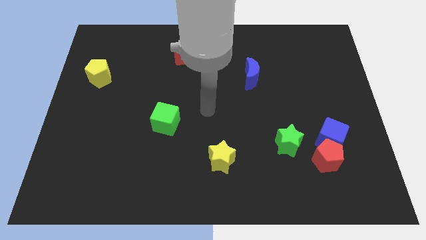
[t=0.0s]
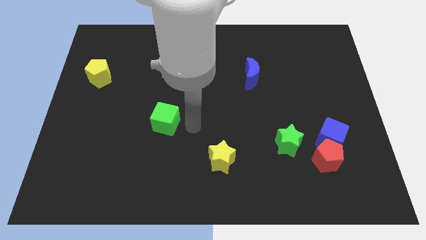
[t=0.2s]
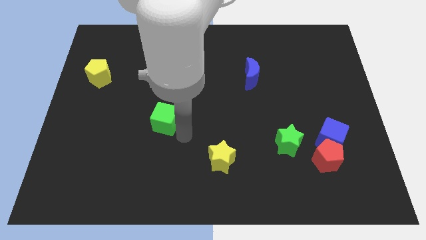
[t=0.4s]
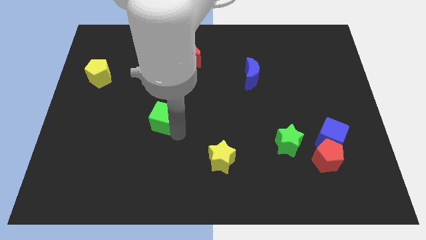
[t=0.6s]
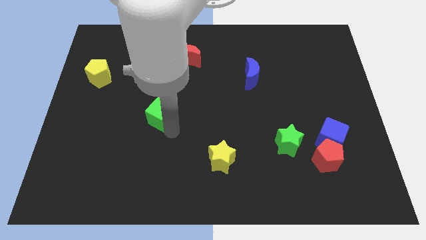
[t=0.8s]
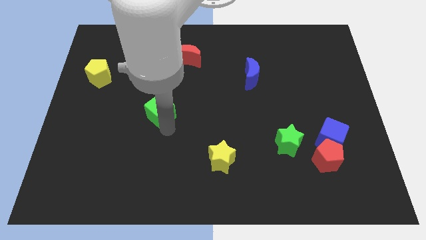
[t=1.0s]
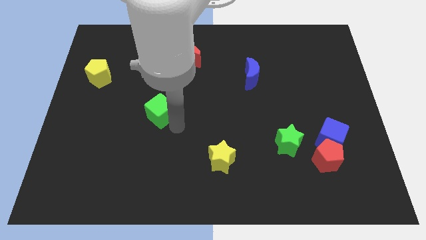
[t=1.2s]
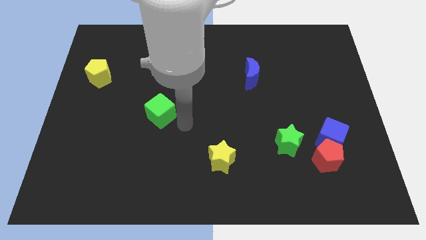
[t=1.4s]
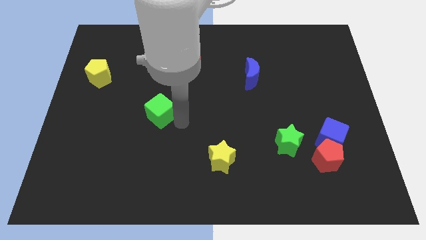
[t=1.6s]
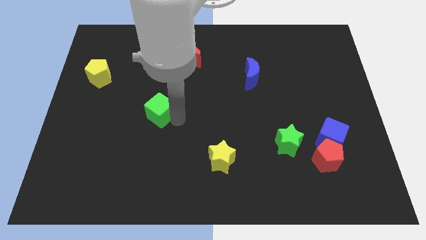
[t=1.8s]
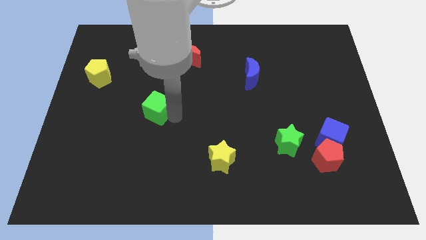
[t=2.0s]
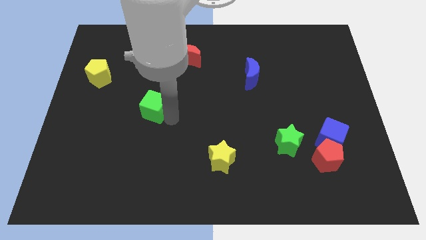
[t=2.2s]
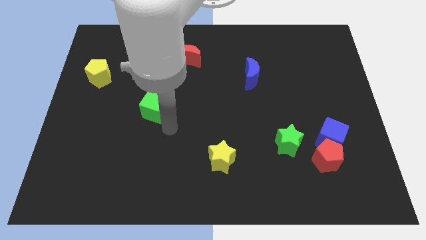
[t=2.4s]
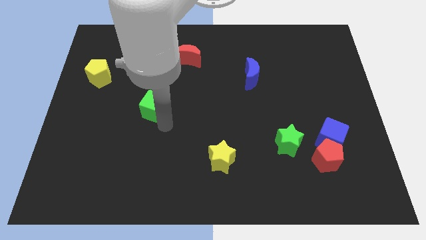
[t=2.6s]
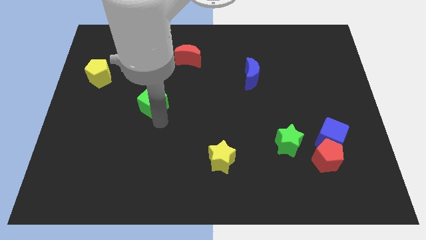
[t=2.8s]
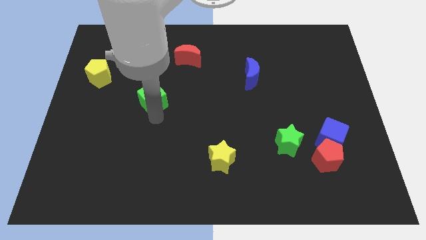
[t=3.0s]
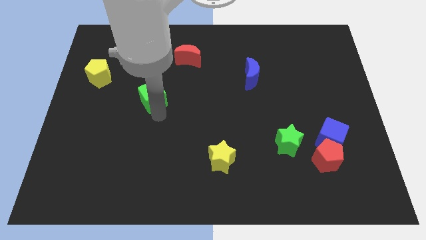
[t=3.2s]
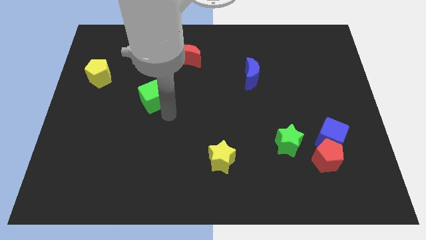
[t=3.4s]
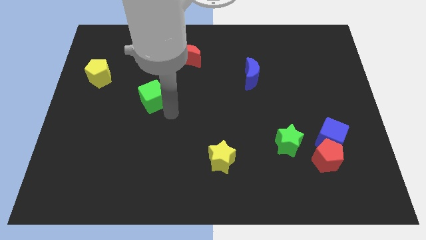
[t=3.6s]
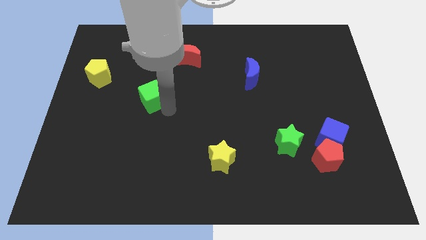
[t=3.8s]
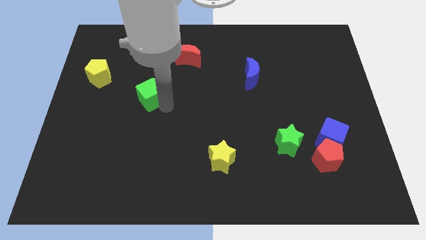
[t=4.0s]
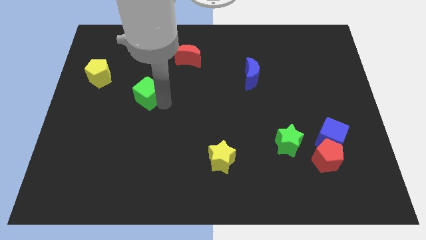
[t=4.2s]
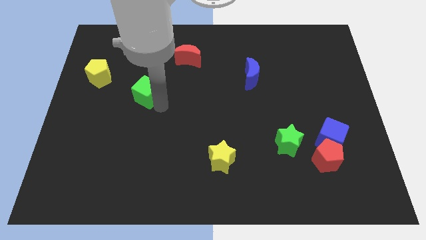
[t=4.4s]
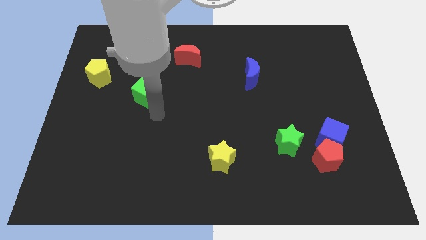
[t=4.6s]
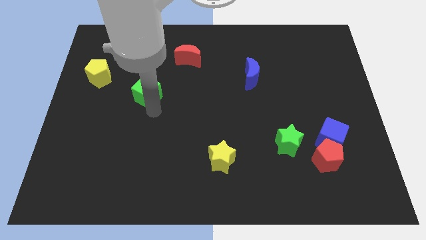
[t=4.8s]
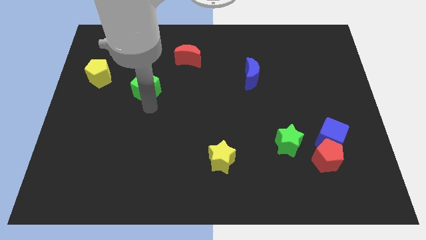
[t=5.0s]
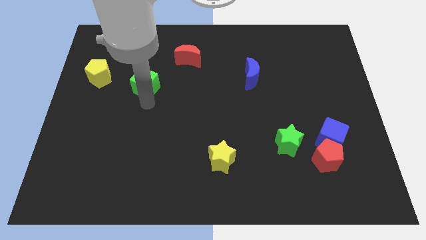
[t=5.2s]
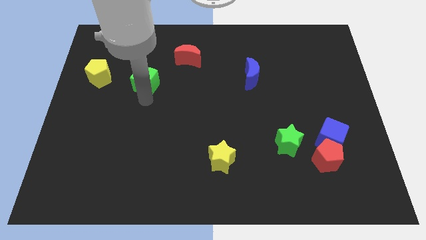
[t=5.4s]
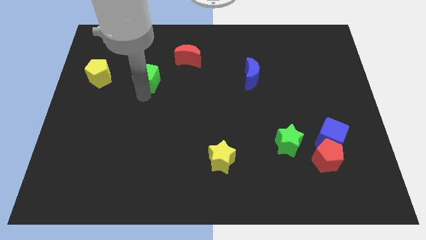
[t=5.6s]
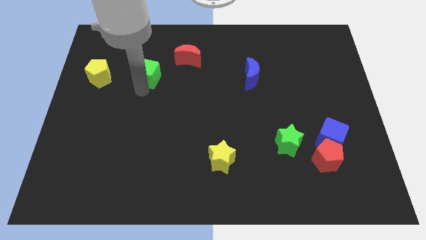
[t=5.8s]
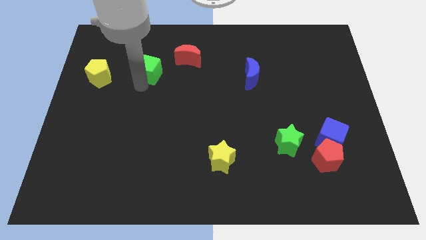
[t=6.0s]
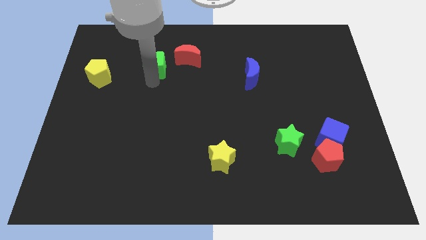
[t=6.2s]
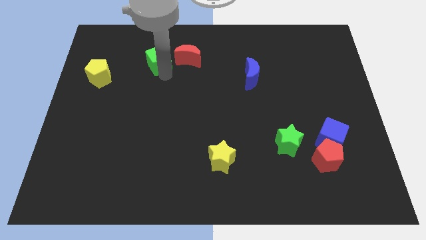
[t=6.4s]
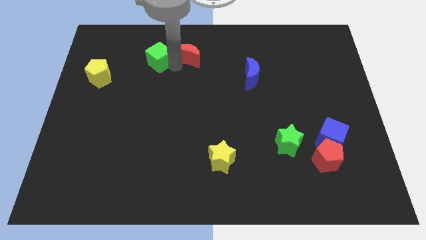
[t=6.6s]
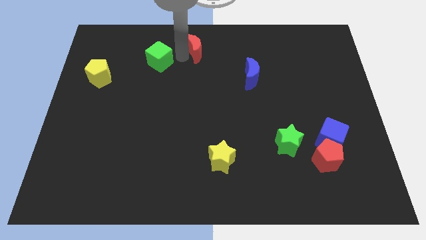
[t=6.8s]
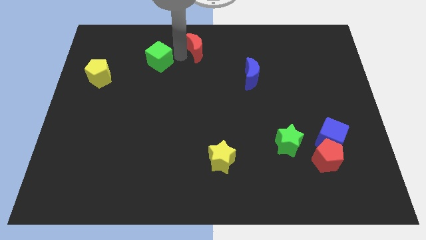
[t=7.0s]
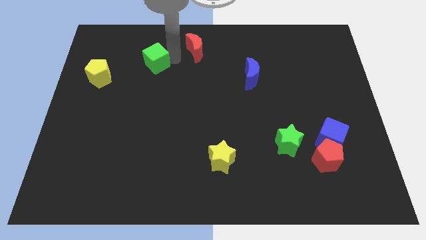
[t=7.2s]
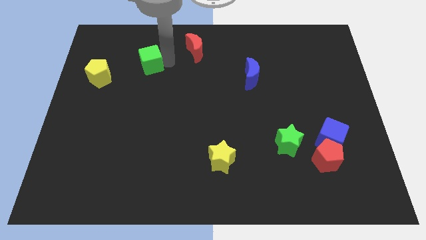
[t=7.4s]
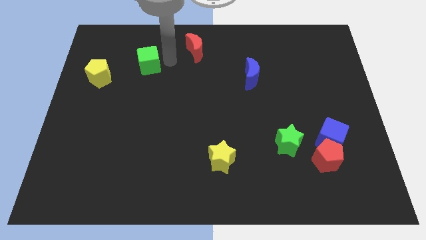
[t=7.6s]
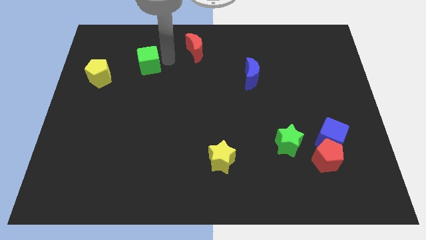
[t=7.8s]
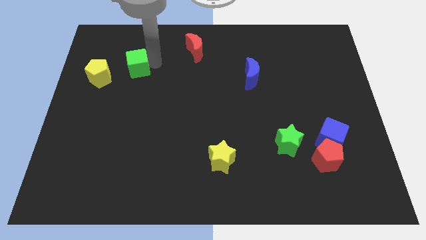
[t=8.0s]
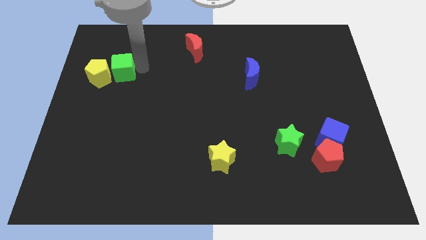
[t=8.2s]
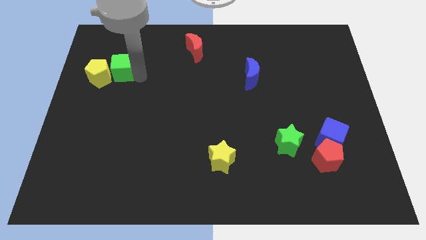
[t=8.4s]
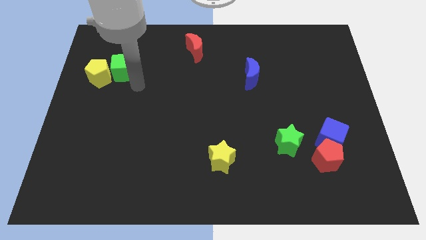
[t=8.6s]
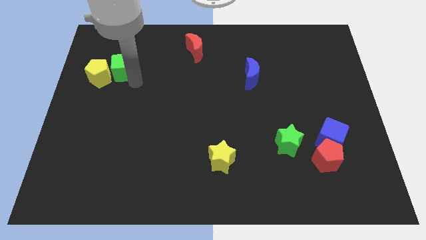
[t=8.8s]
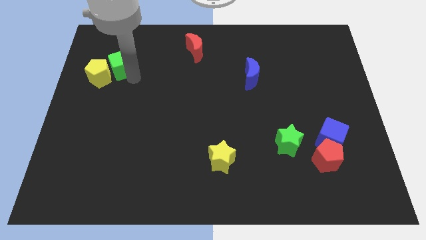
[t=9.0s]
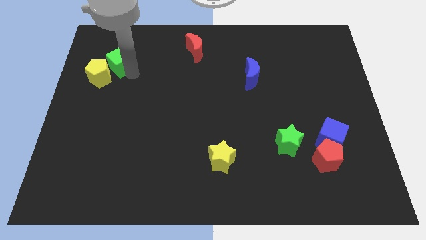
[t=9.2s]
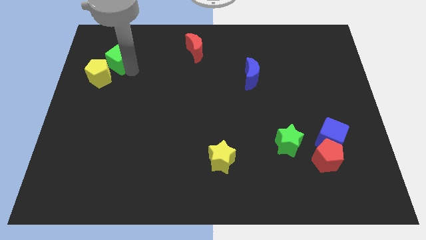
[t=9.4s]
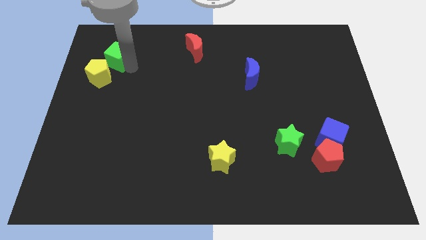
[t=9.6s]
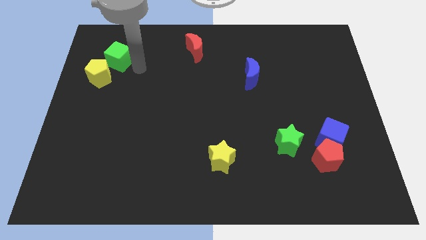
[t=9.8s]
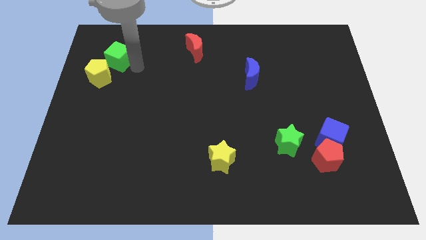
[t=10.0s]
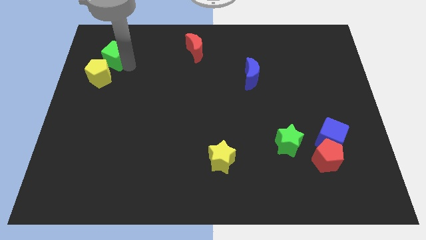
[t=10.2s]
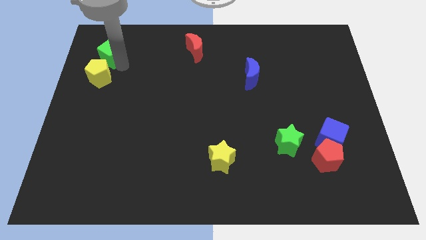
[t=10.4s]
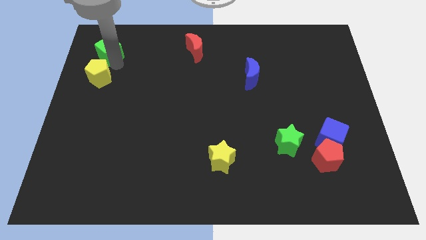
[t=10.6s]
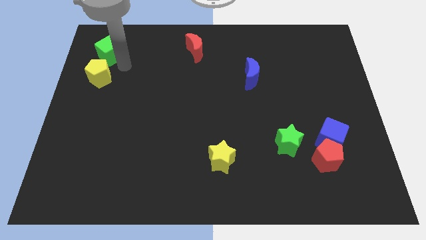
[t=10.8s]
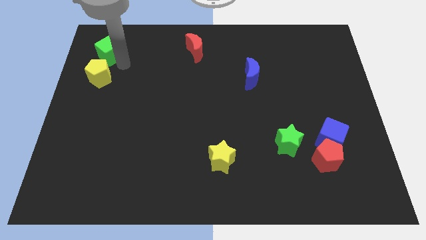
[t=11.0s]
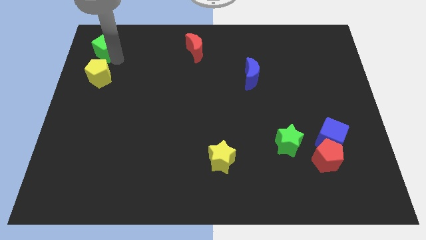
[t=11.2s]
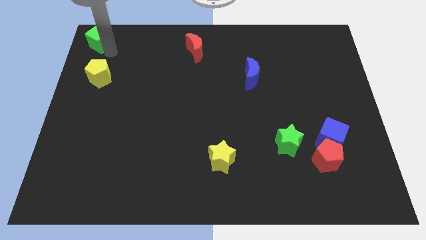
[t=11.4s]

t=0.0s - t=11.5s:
slide the green cube to the upper left corner
